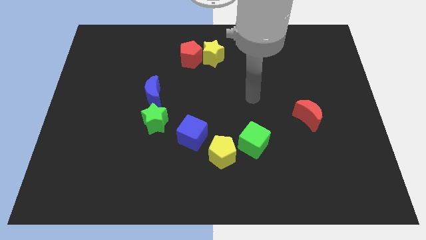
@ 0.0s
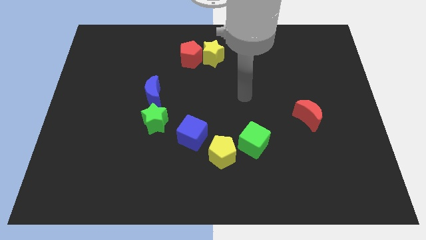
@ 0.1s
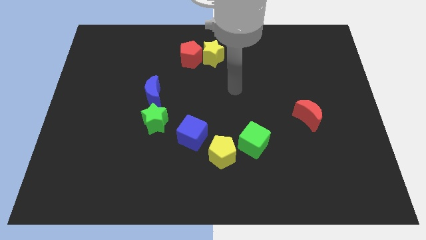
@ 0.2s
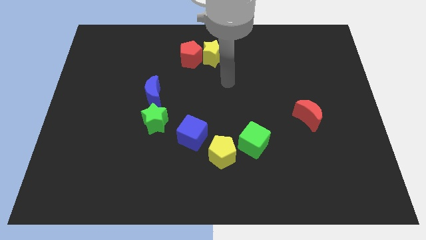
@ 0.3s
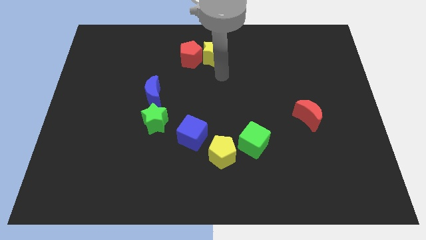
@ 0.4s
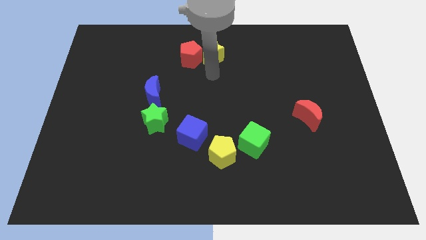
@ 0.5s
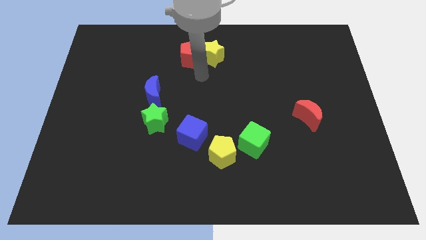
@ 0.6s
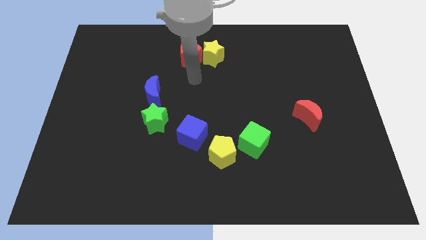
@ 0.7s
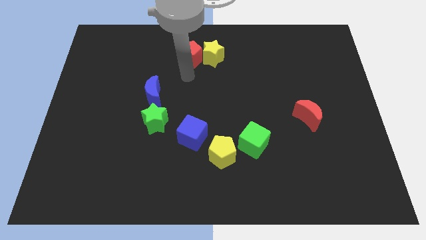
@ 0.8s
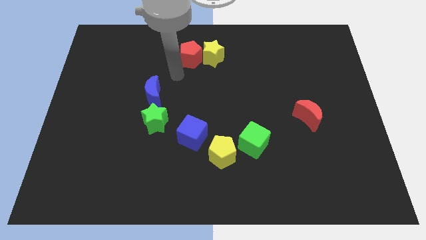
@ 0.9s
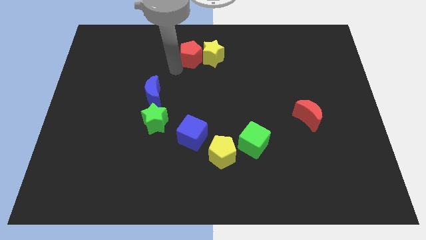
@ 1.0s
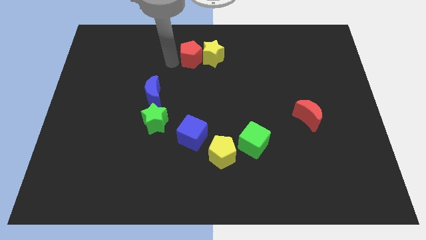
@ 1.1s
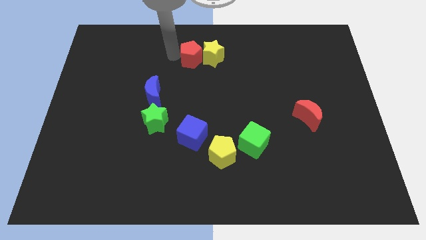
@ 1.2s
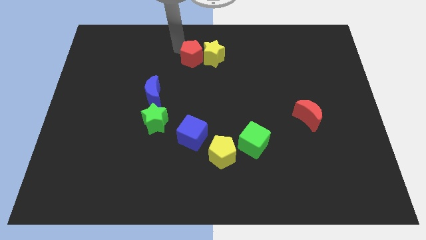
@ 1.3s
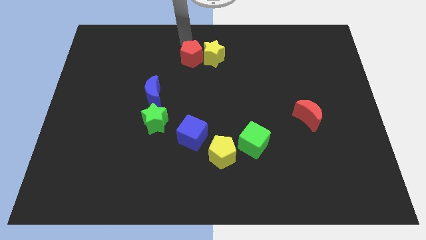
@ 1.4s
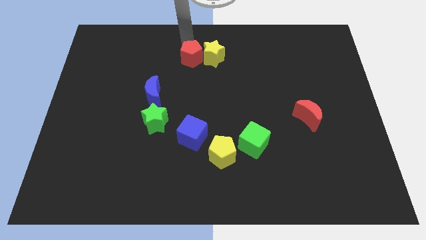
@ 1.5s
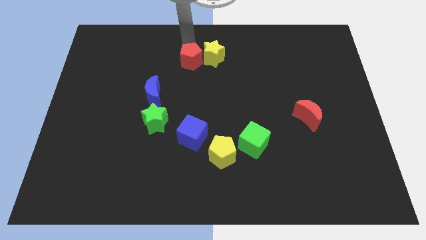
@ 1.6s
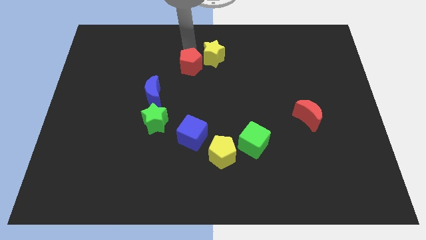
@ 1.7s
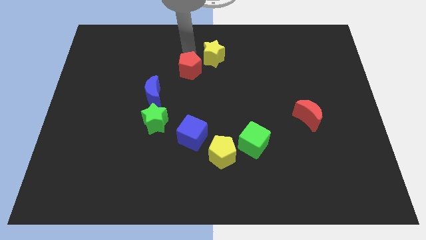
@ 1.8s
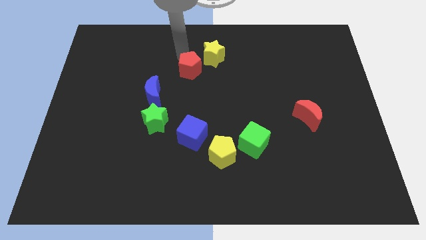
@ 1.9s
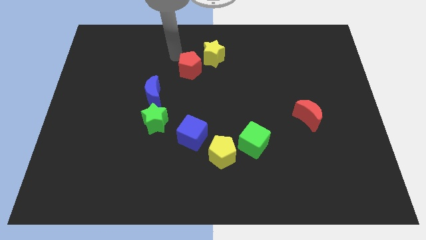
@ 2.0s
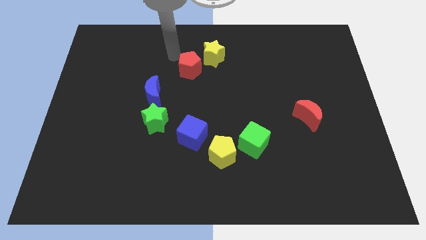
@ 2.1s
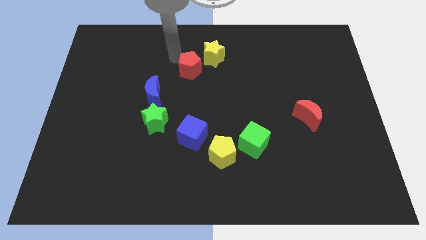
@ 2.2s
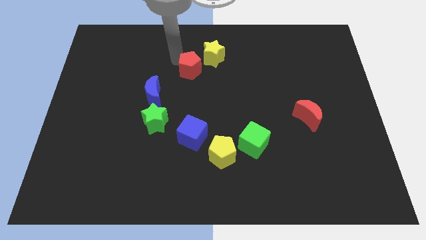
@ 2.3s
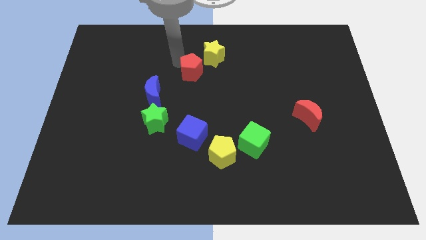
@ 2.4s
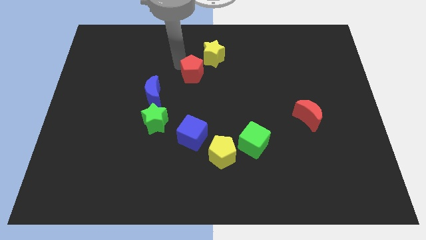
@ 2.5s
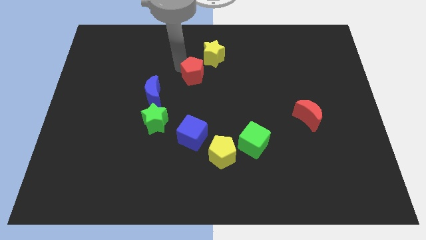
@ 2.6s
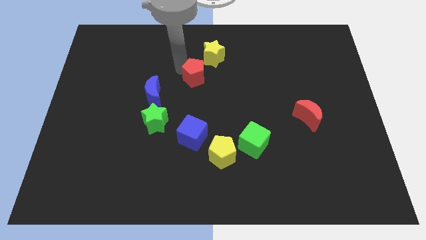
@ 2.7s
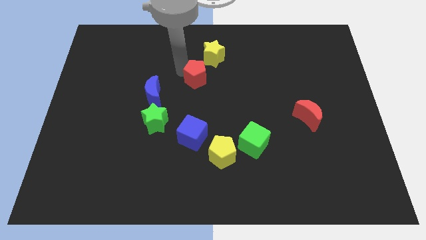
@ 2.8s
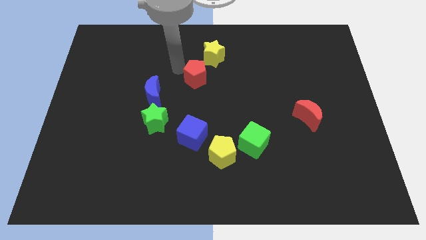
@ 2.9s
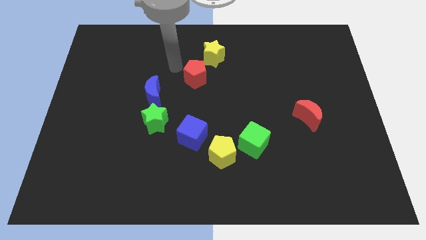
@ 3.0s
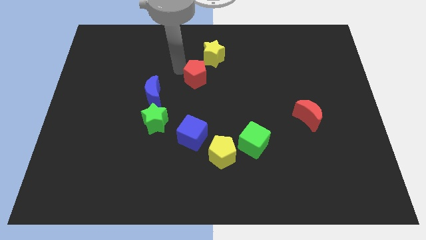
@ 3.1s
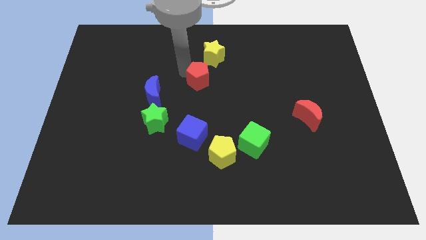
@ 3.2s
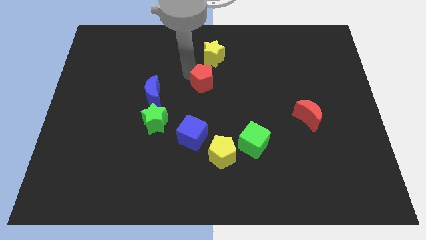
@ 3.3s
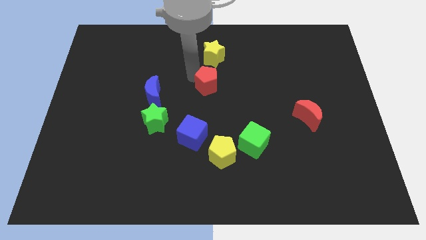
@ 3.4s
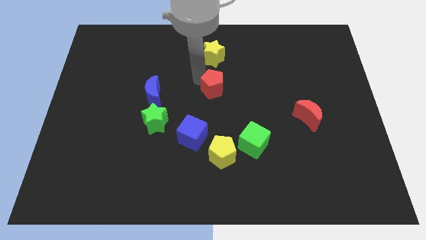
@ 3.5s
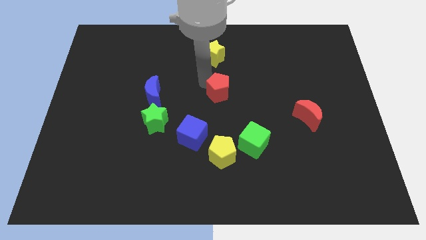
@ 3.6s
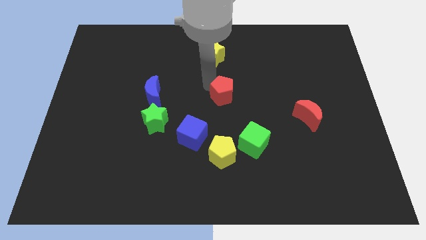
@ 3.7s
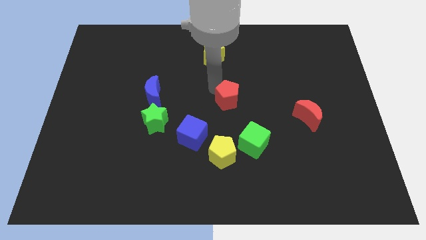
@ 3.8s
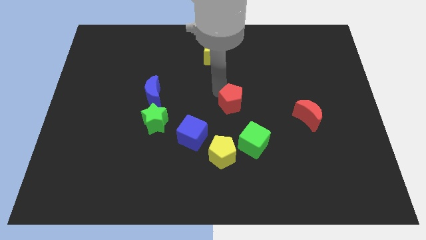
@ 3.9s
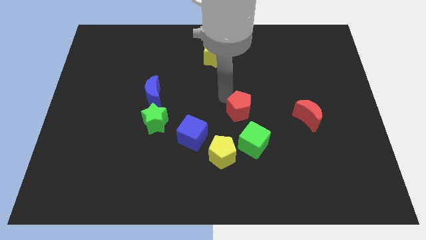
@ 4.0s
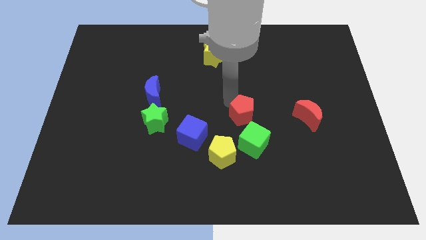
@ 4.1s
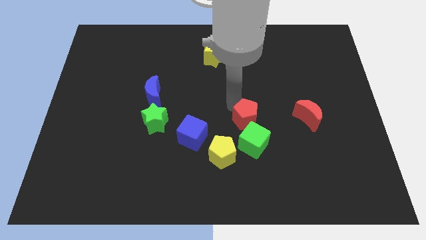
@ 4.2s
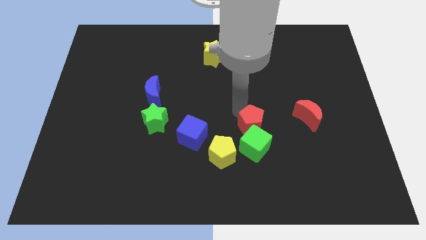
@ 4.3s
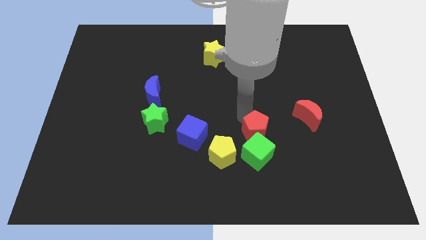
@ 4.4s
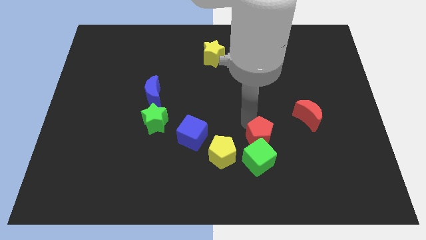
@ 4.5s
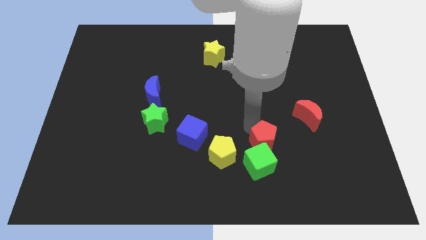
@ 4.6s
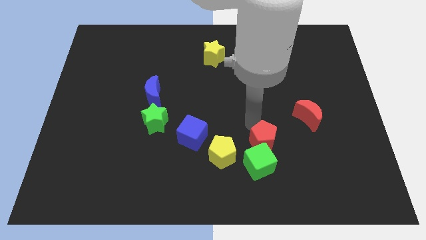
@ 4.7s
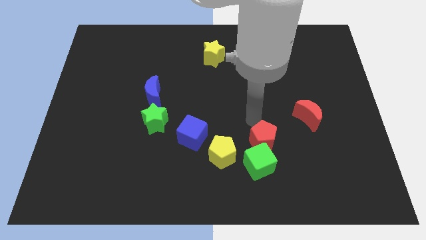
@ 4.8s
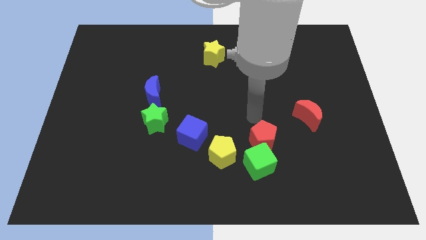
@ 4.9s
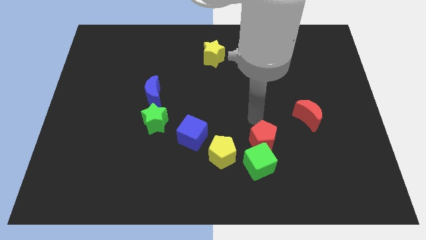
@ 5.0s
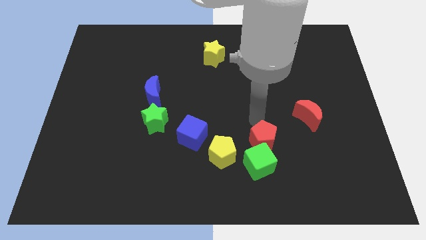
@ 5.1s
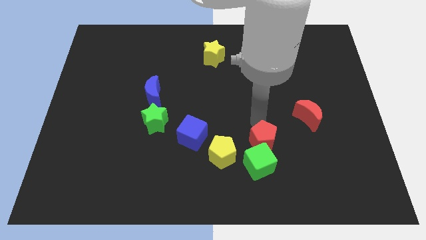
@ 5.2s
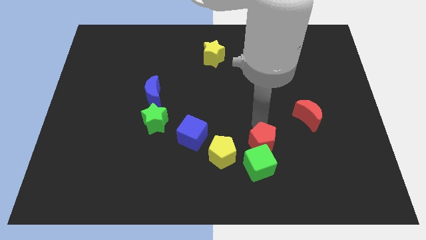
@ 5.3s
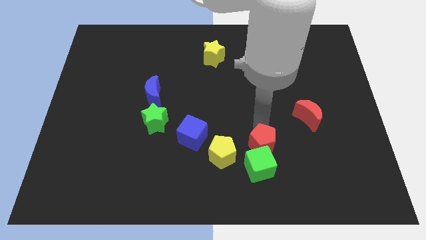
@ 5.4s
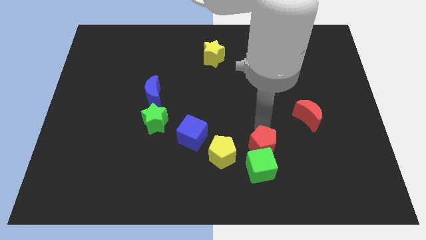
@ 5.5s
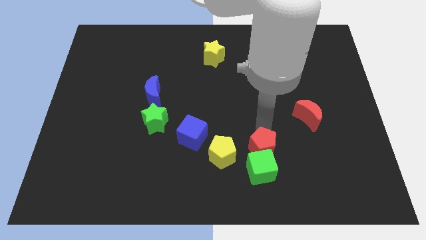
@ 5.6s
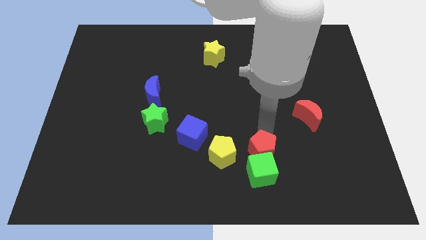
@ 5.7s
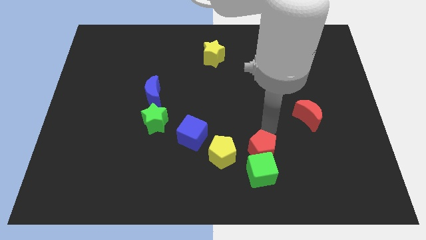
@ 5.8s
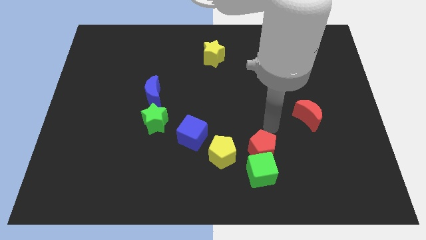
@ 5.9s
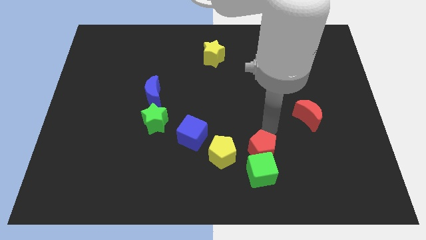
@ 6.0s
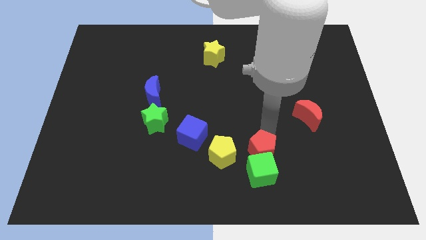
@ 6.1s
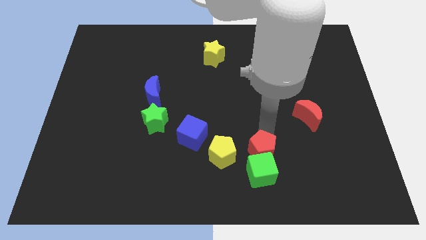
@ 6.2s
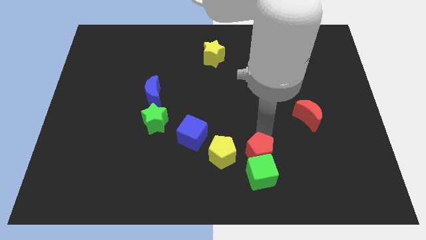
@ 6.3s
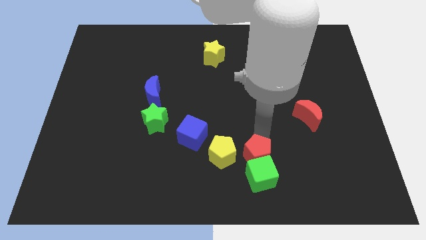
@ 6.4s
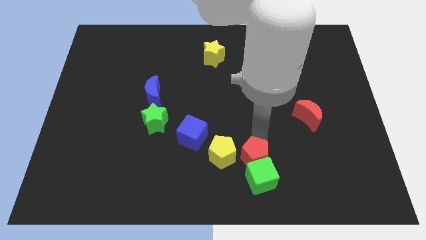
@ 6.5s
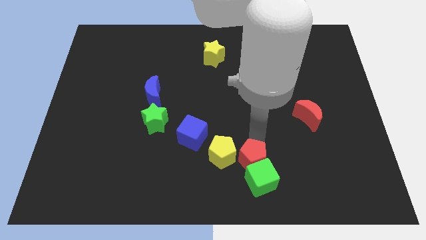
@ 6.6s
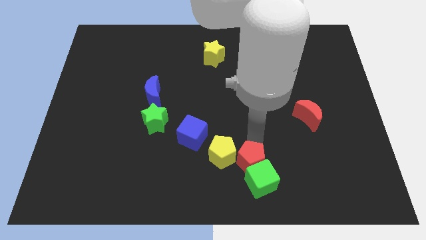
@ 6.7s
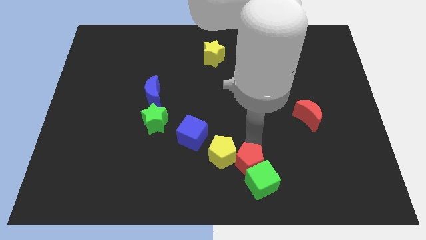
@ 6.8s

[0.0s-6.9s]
push the red pentagon to the bottom
